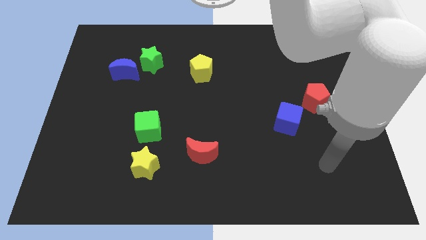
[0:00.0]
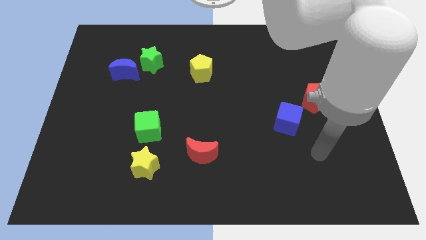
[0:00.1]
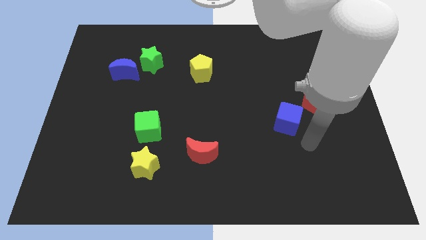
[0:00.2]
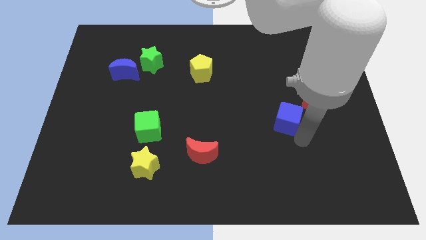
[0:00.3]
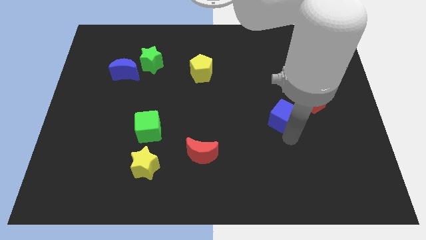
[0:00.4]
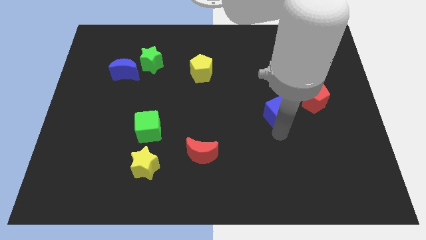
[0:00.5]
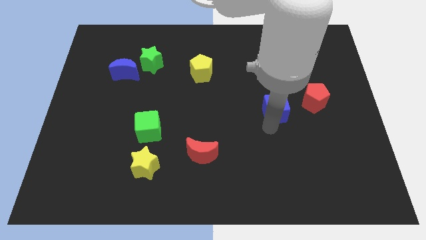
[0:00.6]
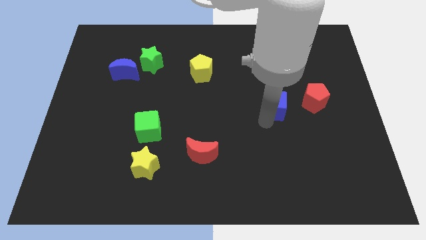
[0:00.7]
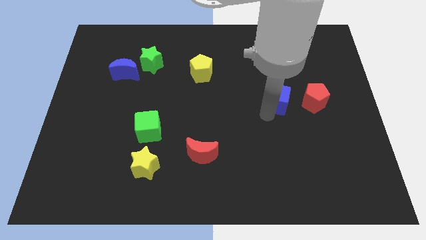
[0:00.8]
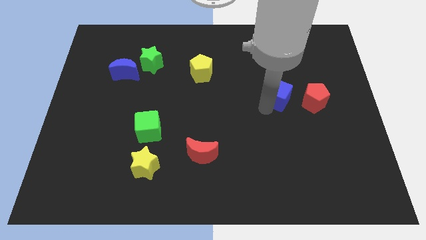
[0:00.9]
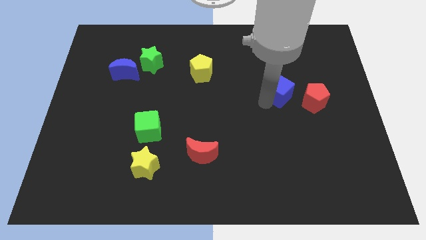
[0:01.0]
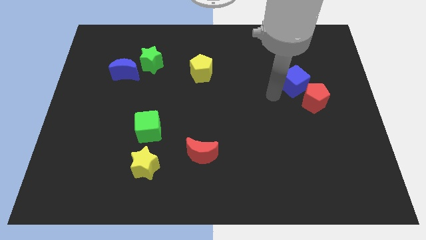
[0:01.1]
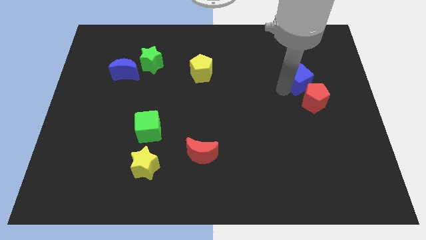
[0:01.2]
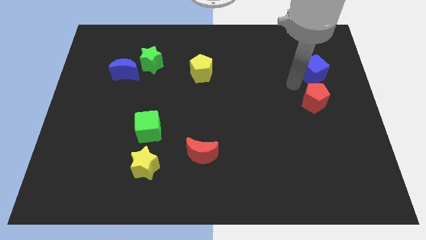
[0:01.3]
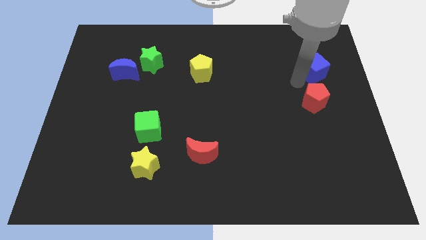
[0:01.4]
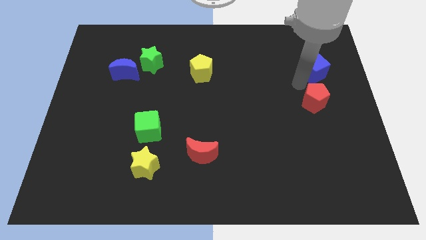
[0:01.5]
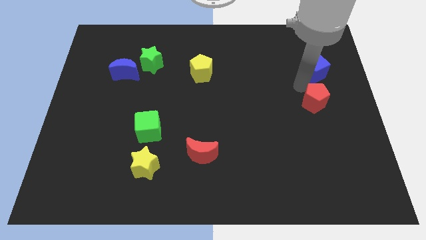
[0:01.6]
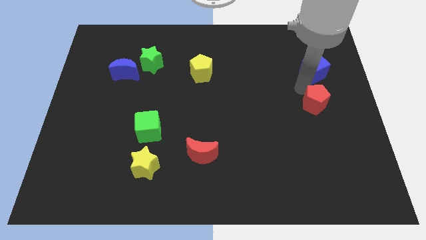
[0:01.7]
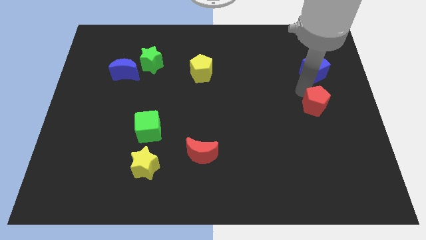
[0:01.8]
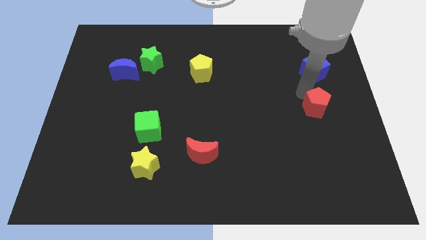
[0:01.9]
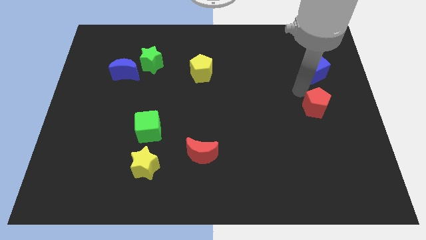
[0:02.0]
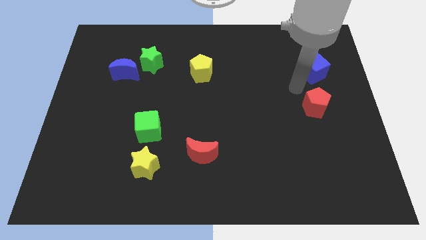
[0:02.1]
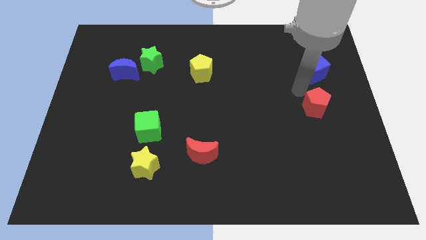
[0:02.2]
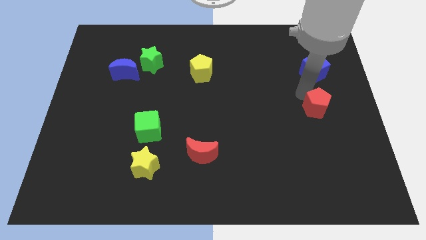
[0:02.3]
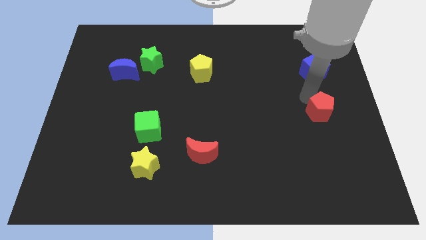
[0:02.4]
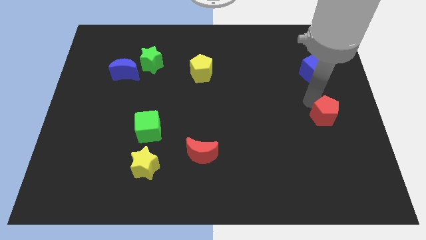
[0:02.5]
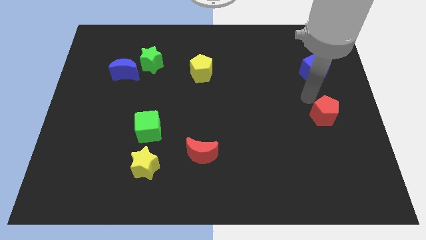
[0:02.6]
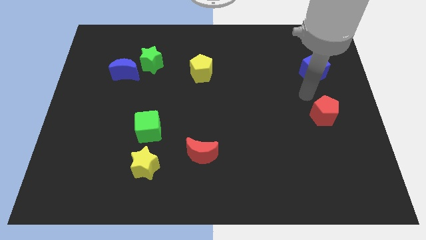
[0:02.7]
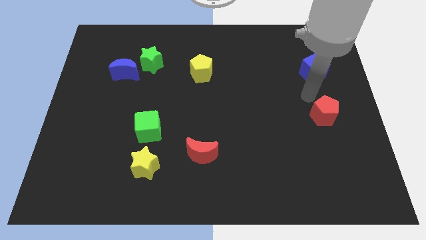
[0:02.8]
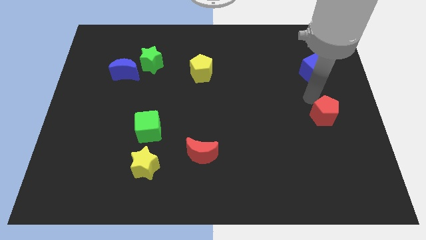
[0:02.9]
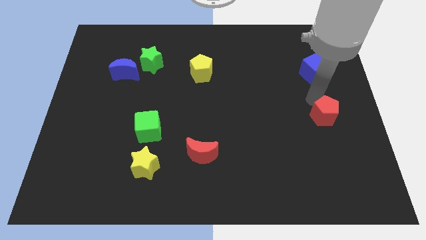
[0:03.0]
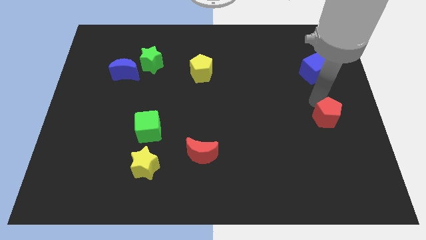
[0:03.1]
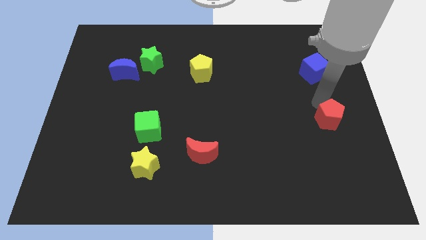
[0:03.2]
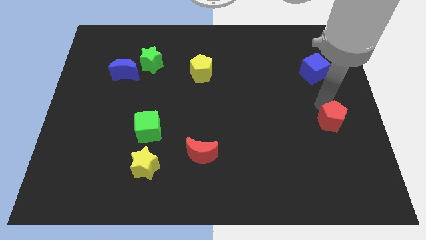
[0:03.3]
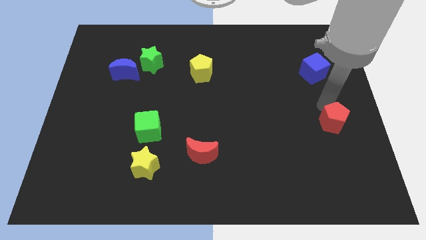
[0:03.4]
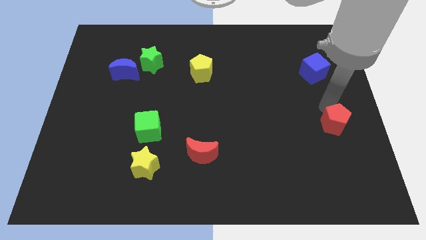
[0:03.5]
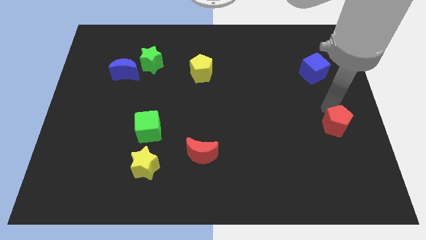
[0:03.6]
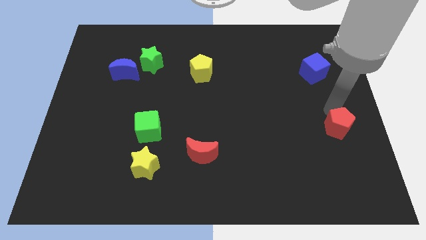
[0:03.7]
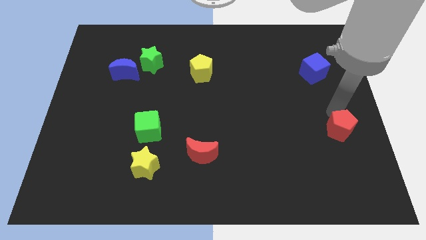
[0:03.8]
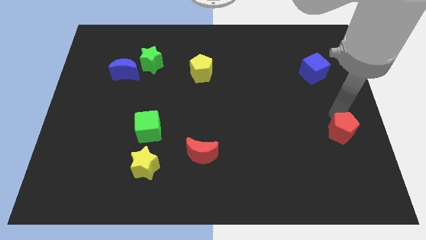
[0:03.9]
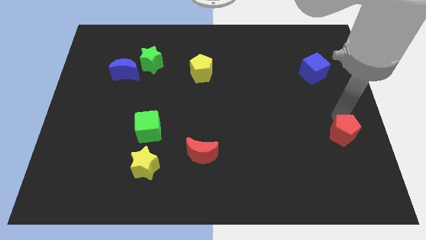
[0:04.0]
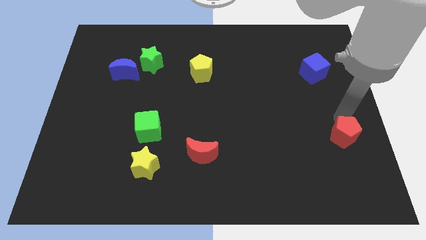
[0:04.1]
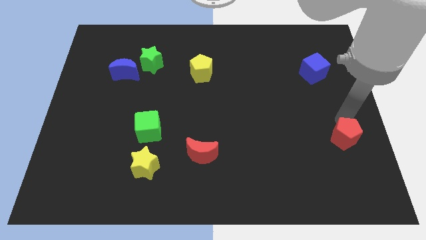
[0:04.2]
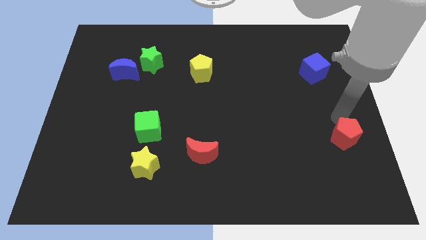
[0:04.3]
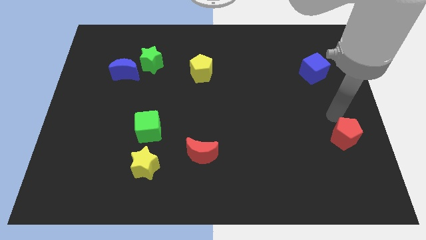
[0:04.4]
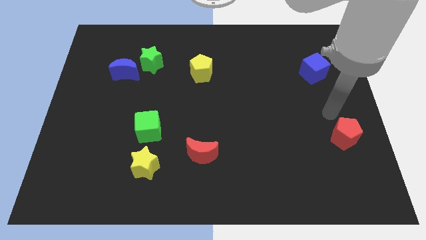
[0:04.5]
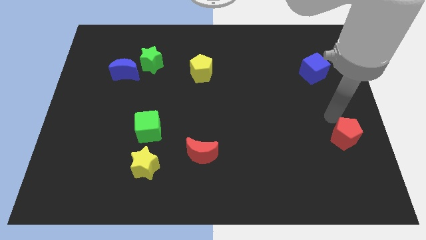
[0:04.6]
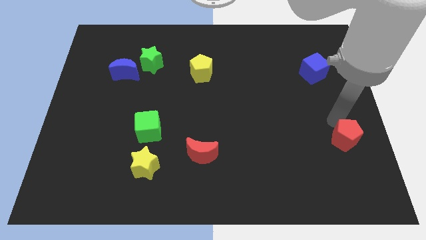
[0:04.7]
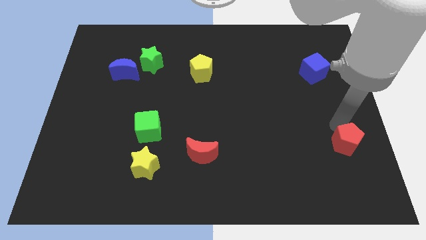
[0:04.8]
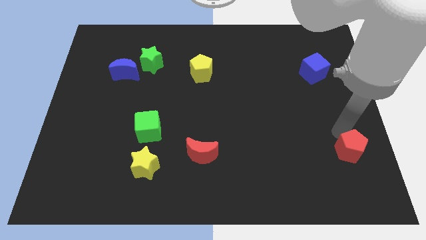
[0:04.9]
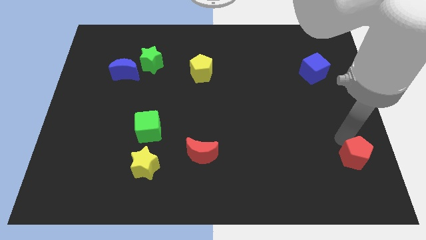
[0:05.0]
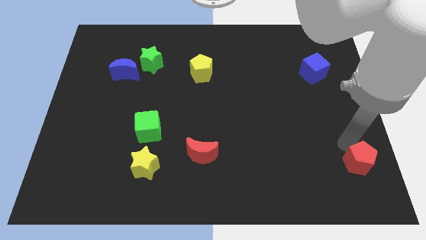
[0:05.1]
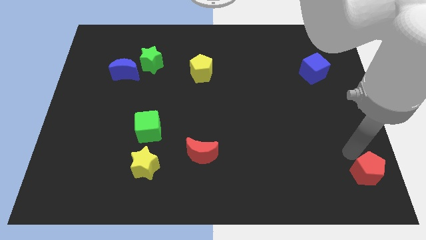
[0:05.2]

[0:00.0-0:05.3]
put the red pentagon to the bottom right

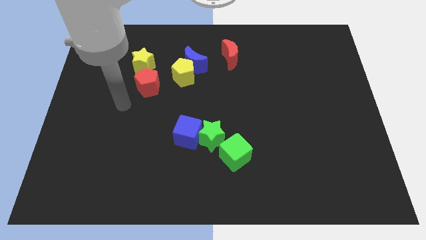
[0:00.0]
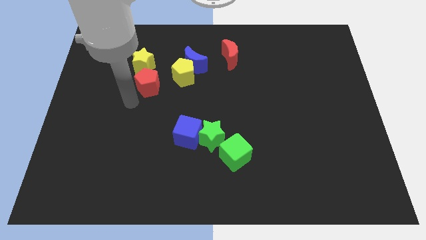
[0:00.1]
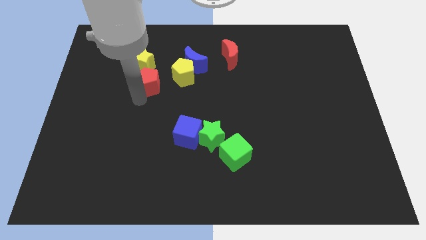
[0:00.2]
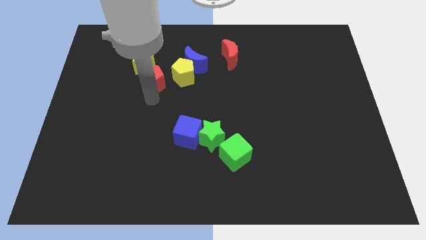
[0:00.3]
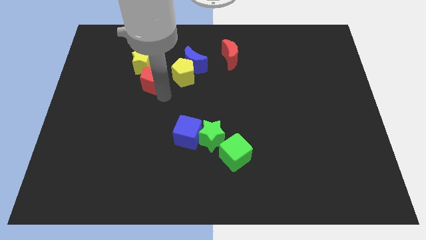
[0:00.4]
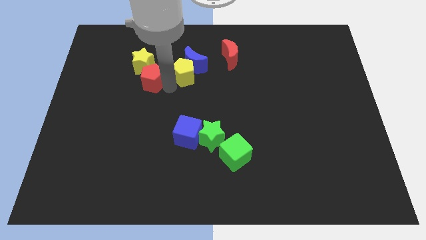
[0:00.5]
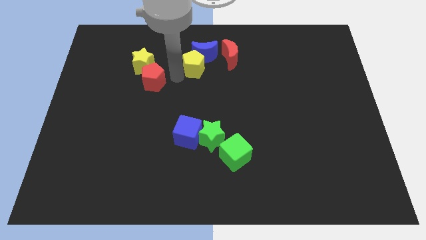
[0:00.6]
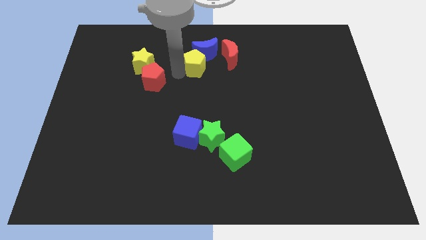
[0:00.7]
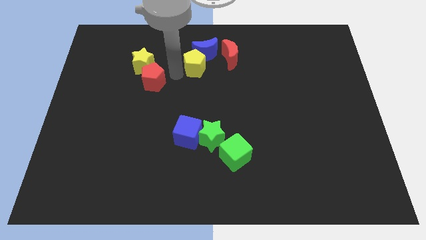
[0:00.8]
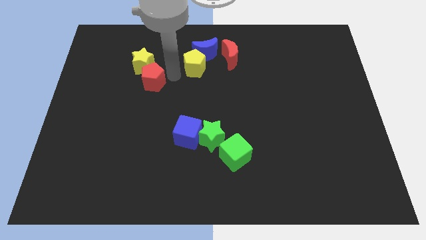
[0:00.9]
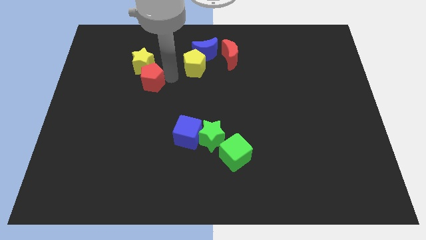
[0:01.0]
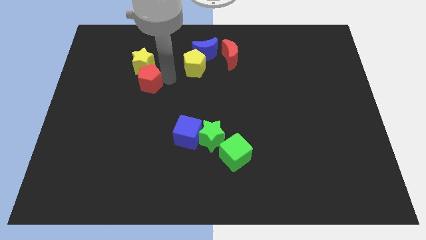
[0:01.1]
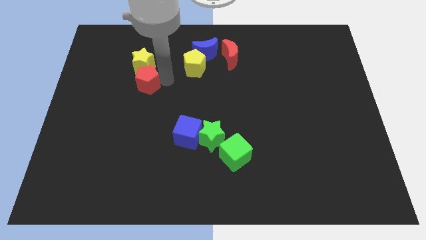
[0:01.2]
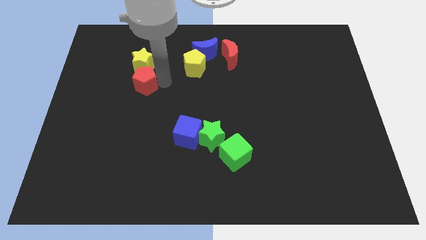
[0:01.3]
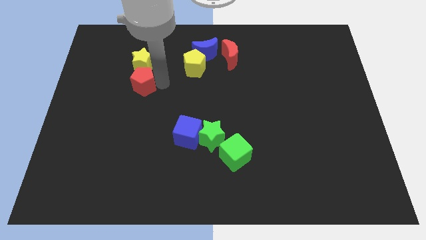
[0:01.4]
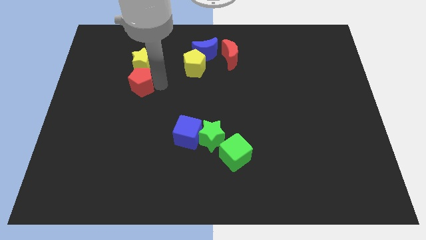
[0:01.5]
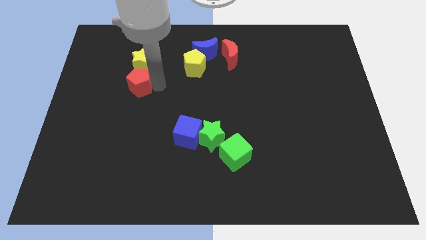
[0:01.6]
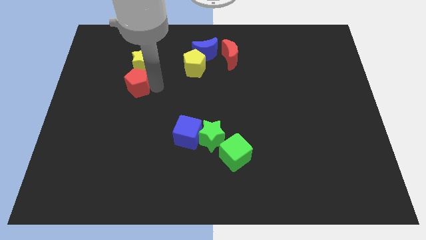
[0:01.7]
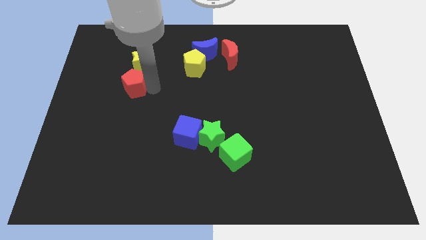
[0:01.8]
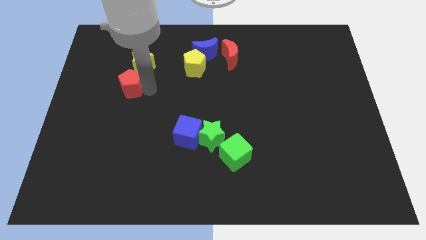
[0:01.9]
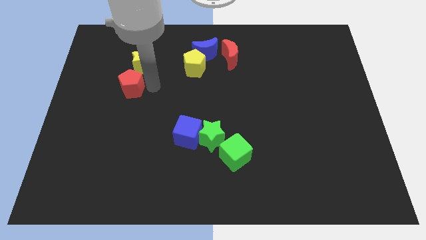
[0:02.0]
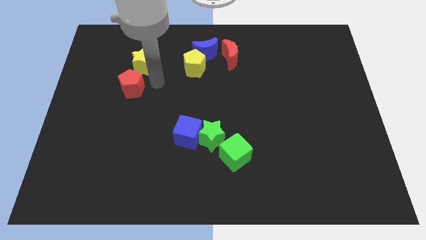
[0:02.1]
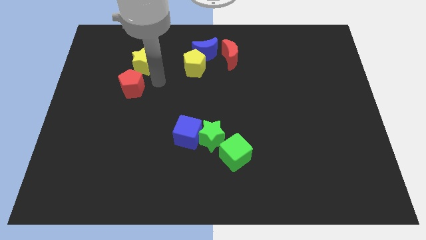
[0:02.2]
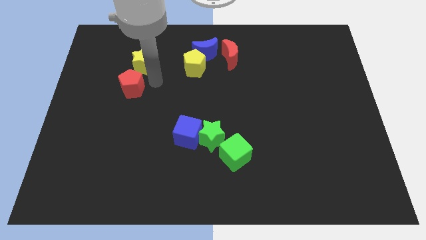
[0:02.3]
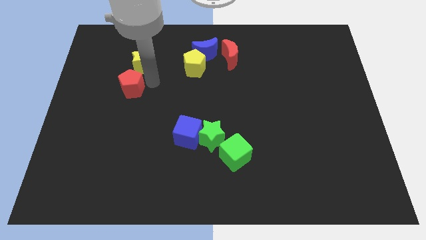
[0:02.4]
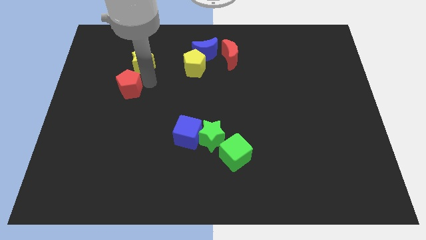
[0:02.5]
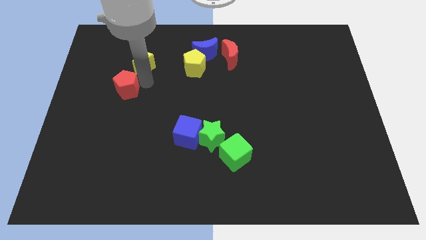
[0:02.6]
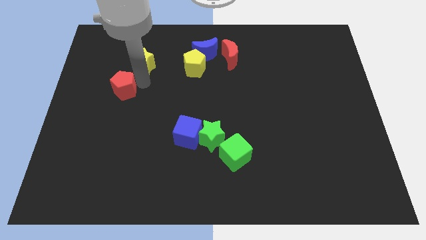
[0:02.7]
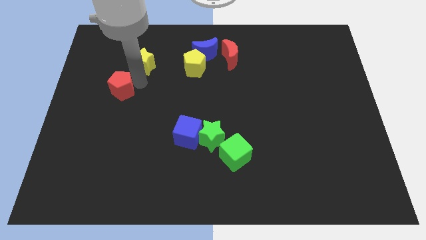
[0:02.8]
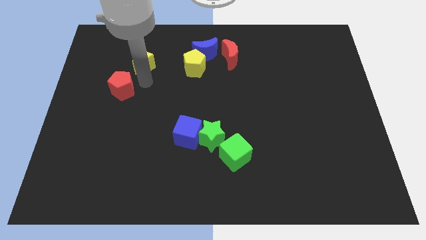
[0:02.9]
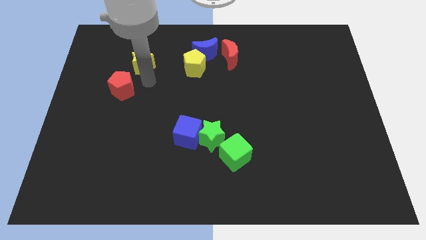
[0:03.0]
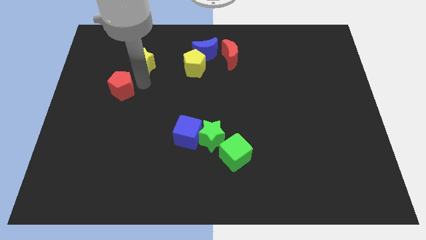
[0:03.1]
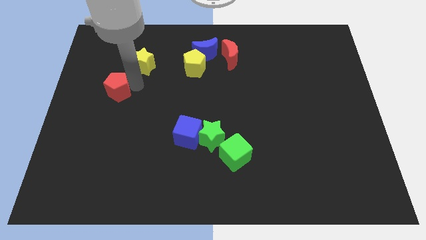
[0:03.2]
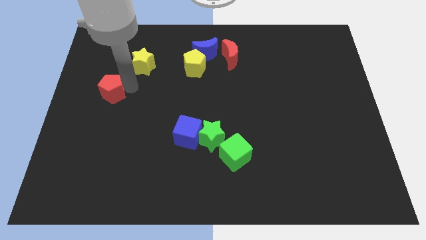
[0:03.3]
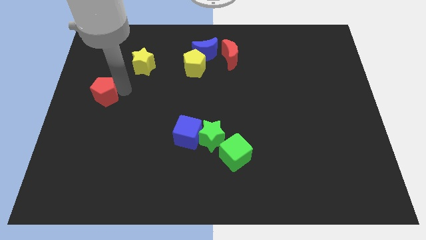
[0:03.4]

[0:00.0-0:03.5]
slide the red pentagon to the left side
